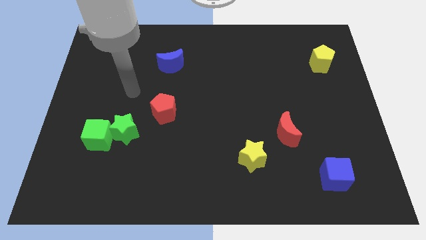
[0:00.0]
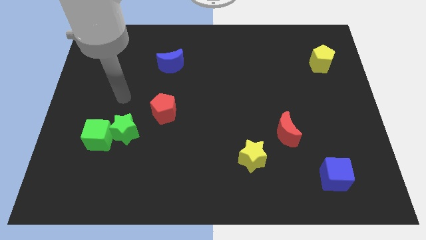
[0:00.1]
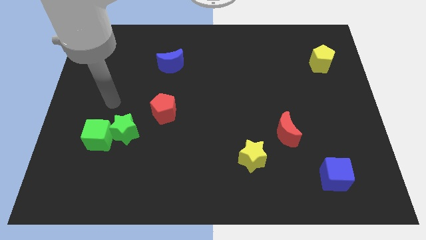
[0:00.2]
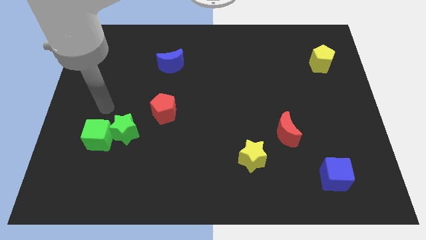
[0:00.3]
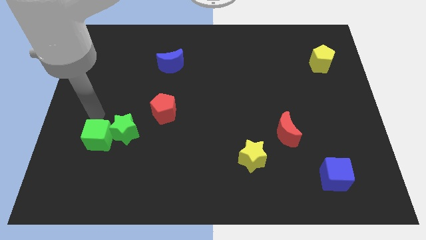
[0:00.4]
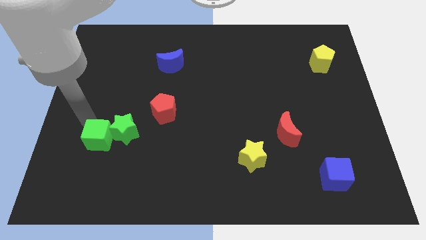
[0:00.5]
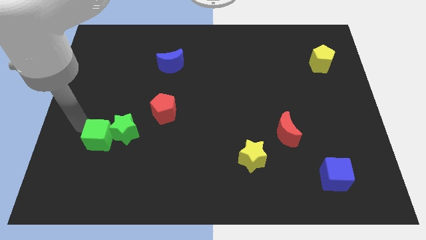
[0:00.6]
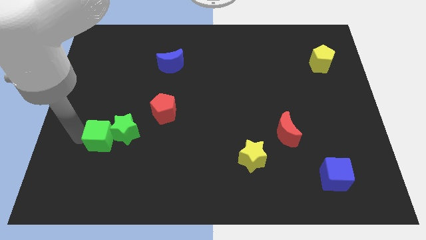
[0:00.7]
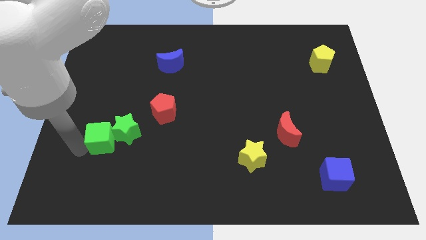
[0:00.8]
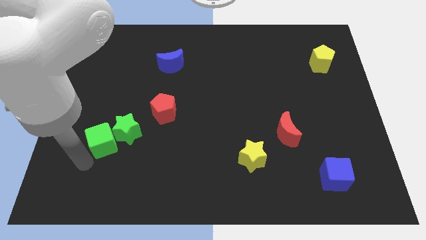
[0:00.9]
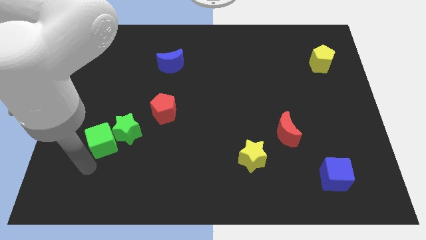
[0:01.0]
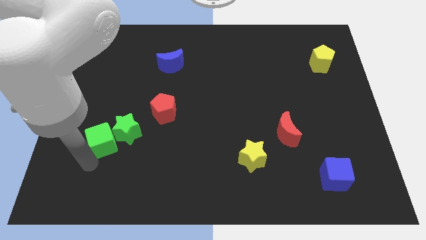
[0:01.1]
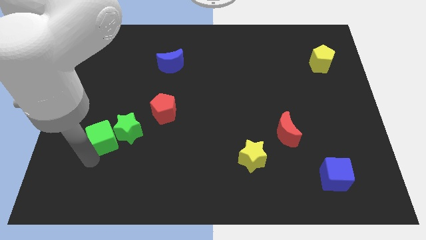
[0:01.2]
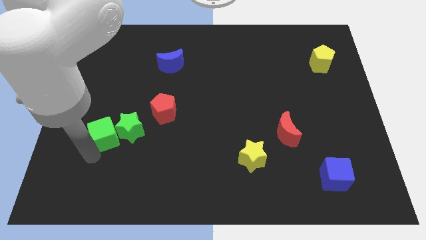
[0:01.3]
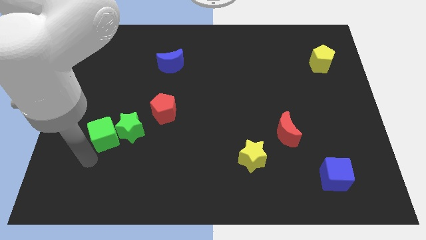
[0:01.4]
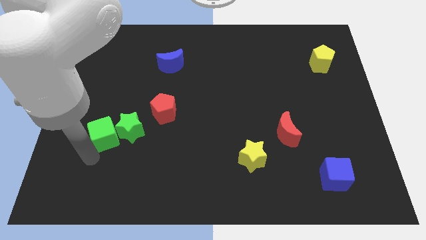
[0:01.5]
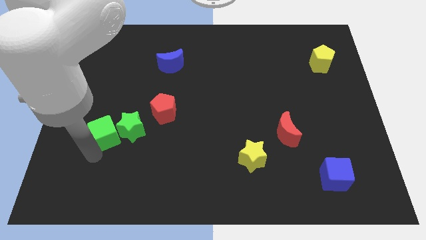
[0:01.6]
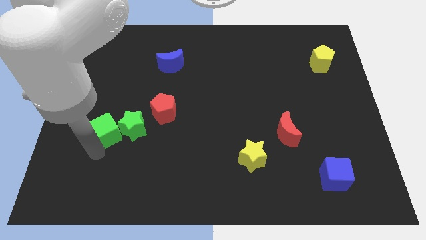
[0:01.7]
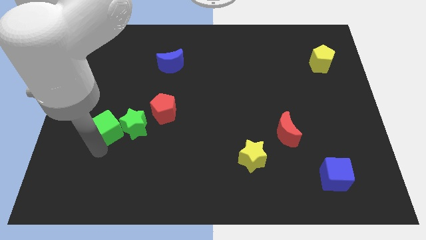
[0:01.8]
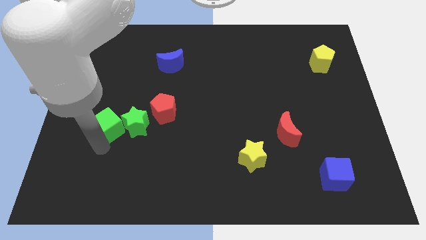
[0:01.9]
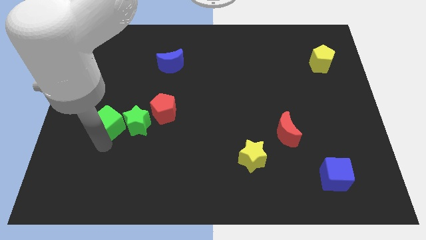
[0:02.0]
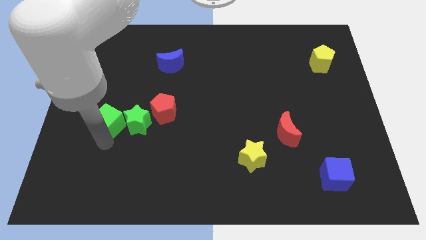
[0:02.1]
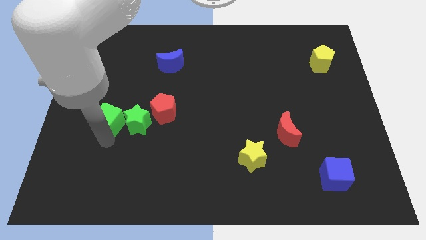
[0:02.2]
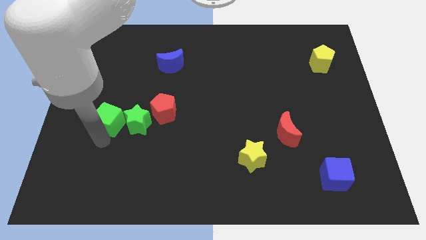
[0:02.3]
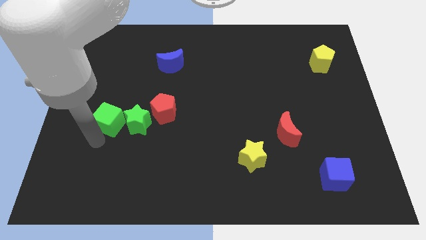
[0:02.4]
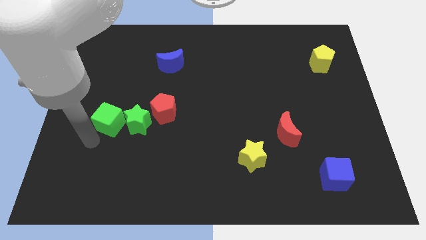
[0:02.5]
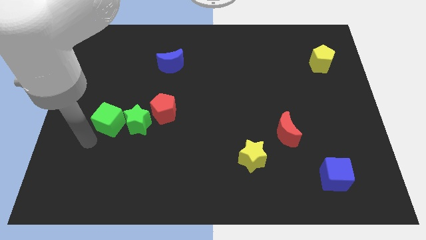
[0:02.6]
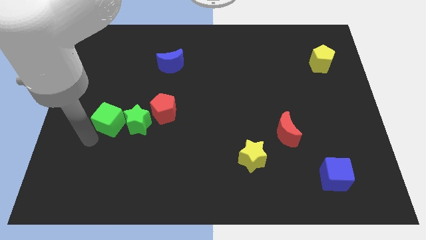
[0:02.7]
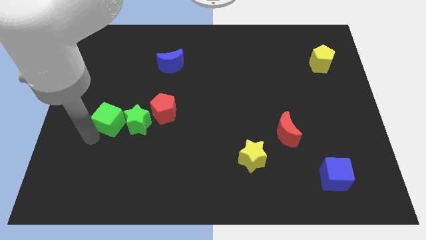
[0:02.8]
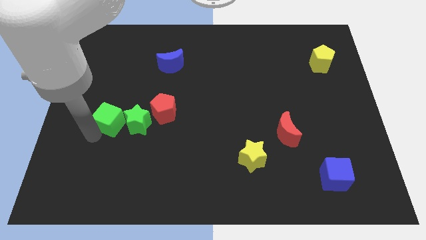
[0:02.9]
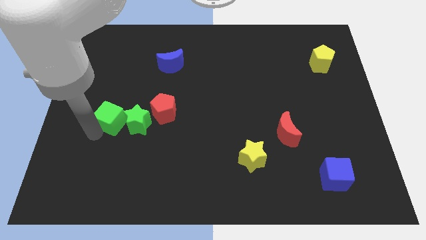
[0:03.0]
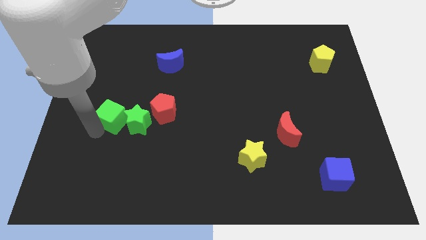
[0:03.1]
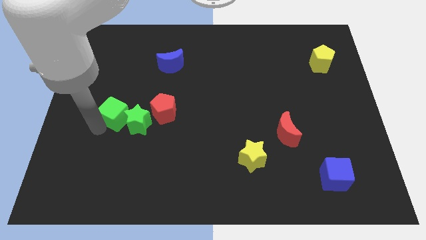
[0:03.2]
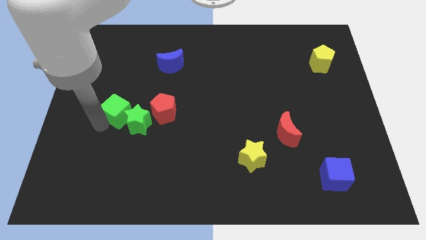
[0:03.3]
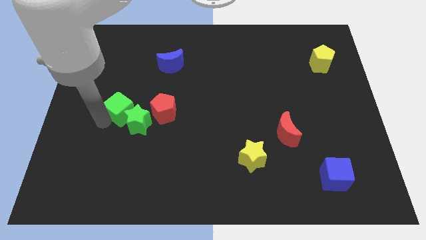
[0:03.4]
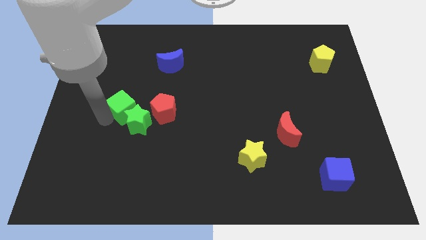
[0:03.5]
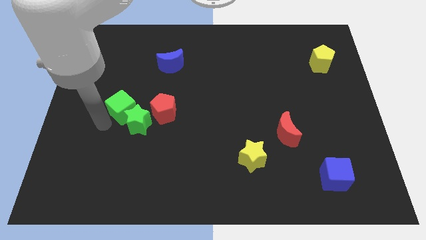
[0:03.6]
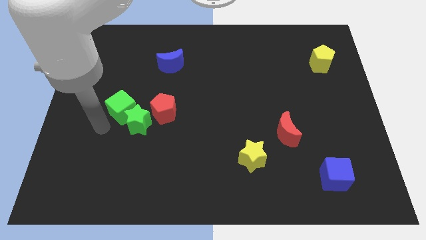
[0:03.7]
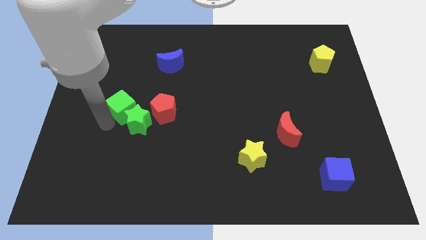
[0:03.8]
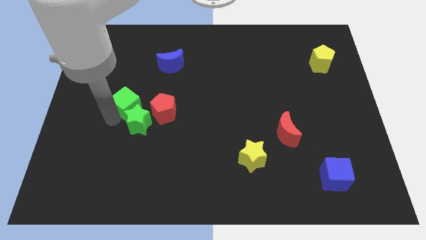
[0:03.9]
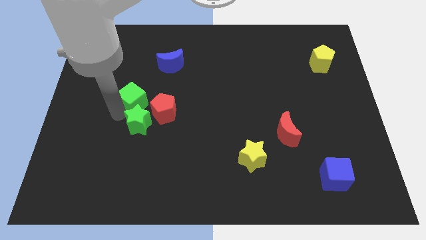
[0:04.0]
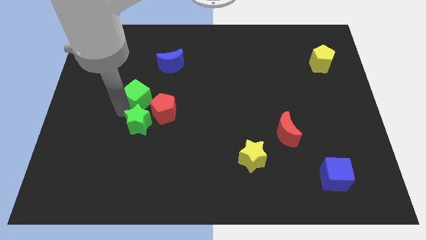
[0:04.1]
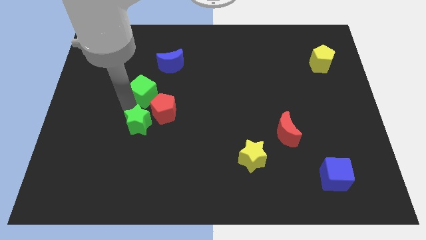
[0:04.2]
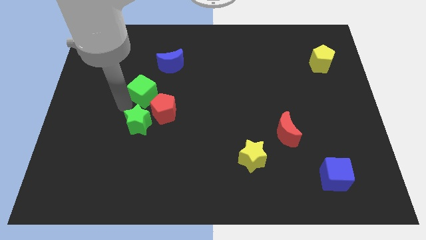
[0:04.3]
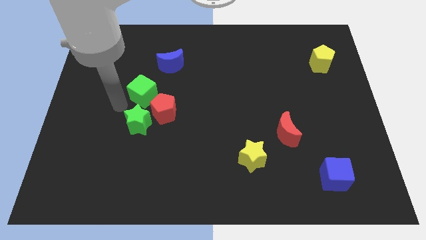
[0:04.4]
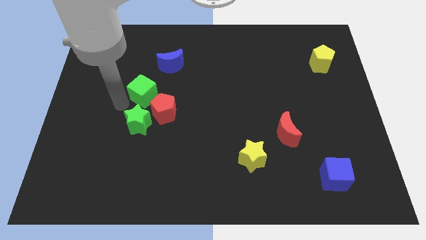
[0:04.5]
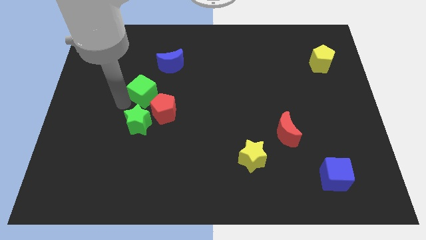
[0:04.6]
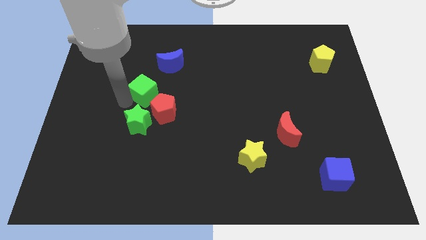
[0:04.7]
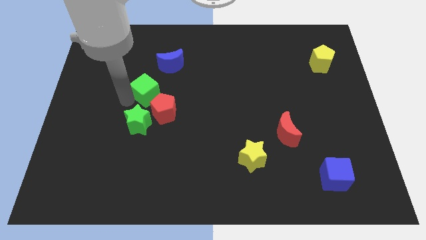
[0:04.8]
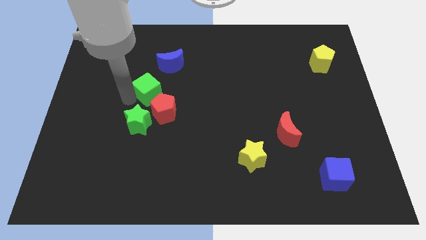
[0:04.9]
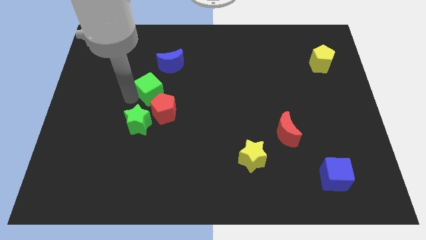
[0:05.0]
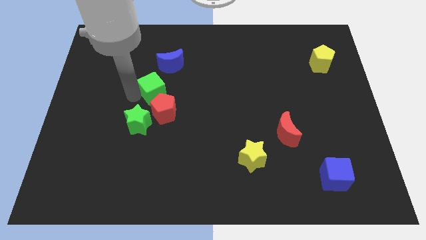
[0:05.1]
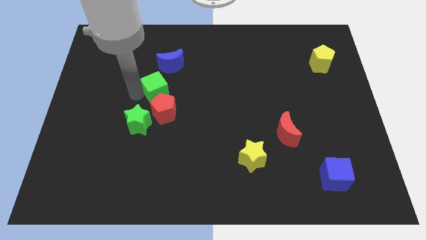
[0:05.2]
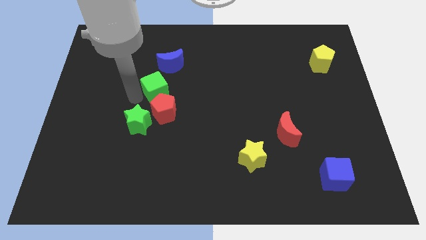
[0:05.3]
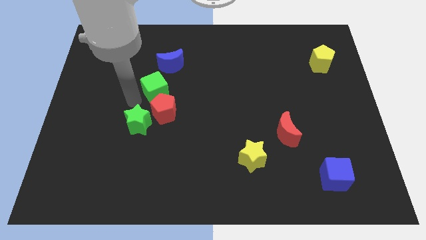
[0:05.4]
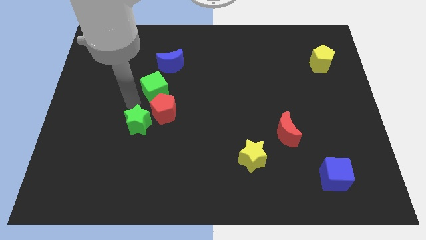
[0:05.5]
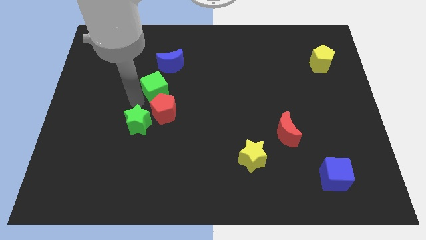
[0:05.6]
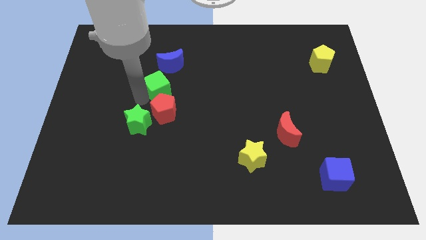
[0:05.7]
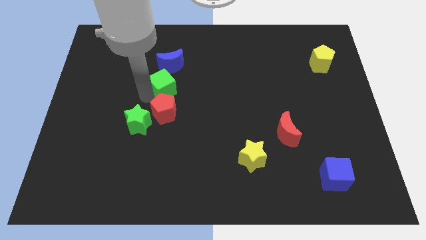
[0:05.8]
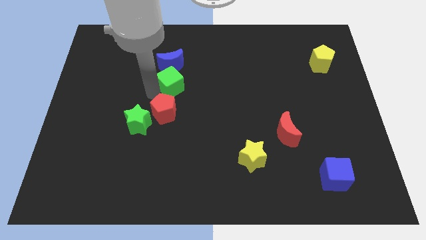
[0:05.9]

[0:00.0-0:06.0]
move the green cube upwards and to the right

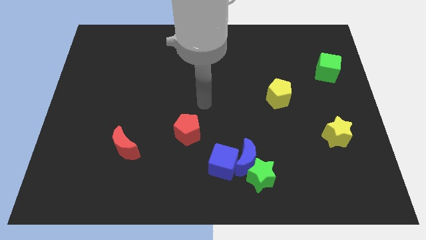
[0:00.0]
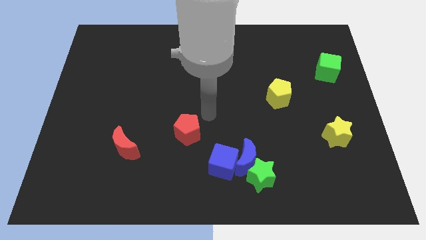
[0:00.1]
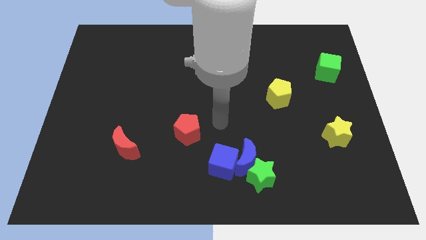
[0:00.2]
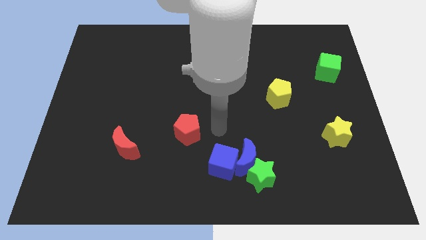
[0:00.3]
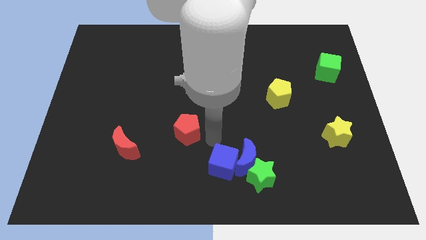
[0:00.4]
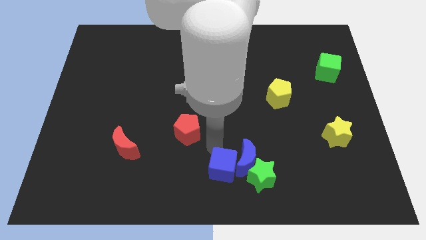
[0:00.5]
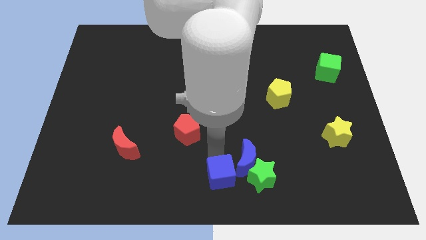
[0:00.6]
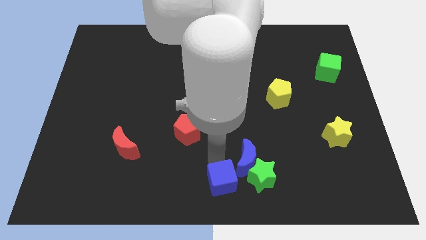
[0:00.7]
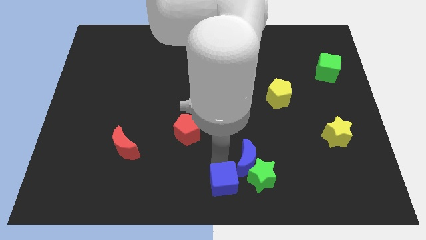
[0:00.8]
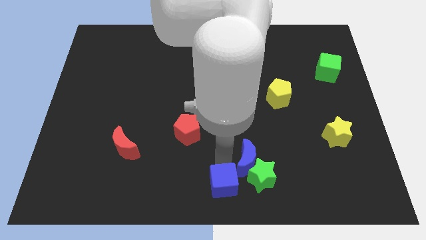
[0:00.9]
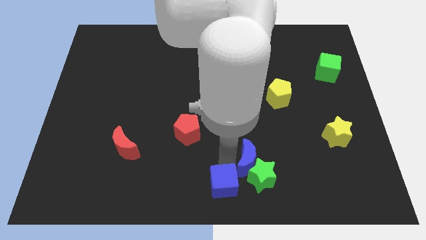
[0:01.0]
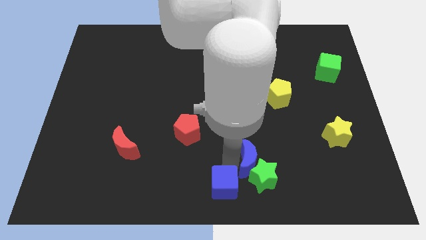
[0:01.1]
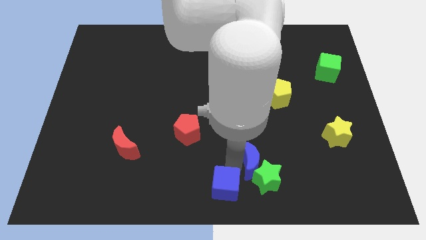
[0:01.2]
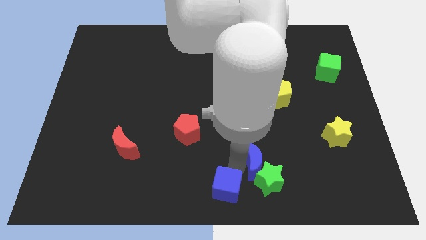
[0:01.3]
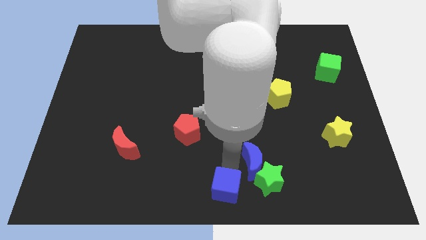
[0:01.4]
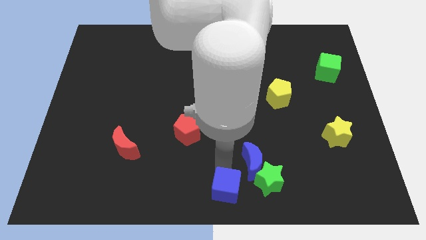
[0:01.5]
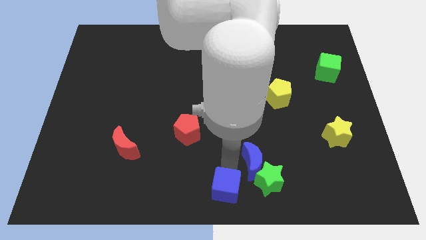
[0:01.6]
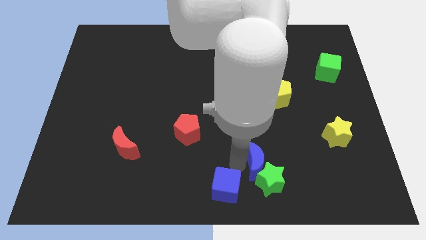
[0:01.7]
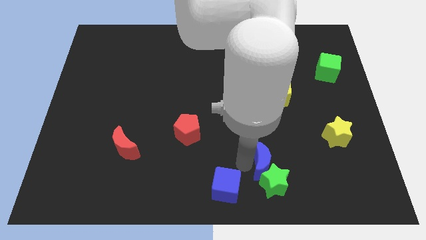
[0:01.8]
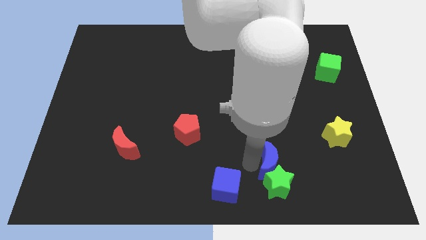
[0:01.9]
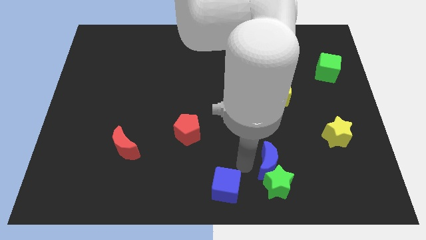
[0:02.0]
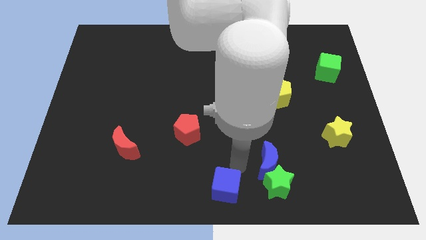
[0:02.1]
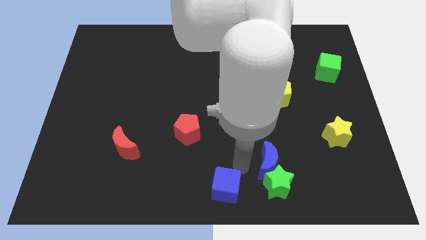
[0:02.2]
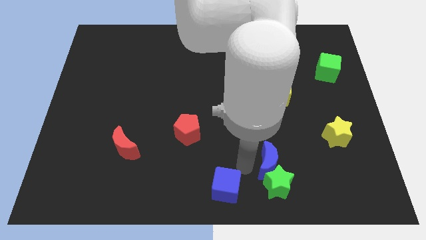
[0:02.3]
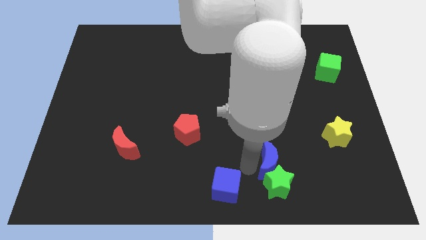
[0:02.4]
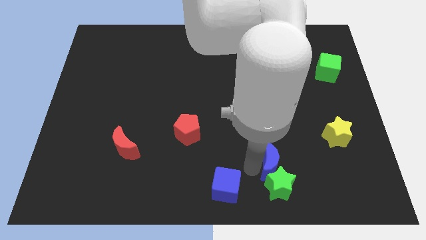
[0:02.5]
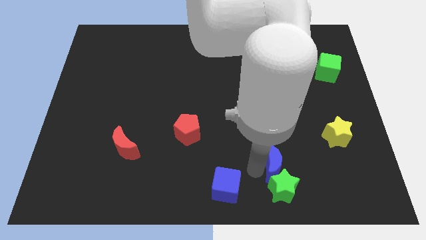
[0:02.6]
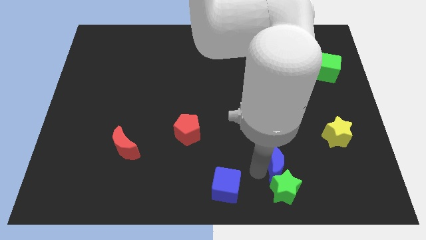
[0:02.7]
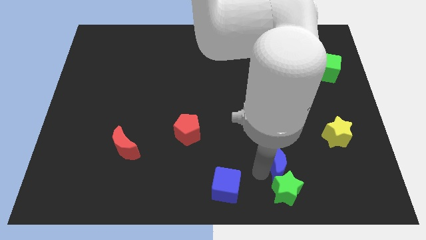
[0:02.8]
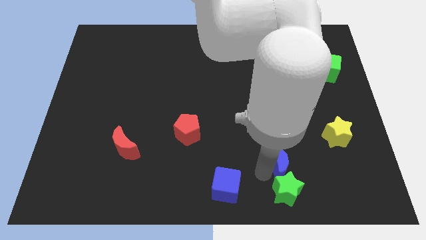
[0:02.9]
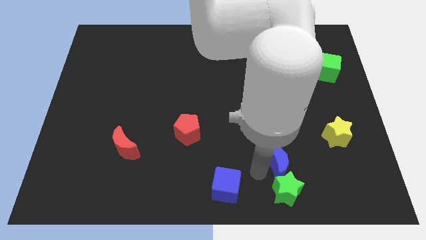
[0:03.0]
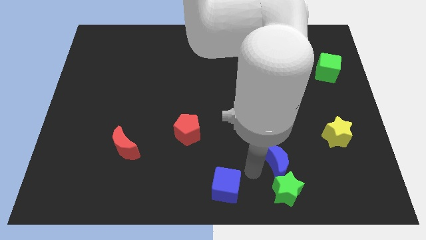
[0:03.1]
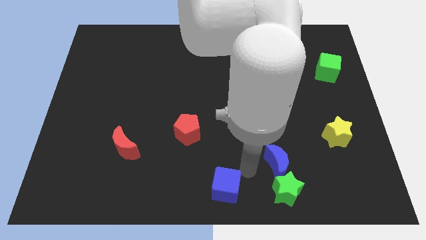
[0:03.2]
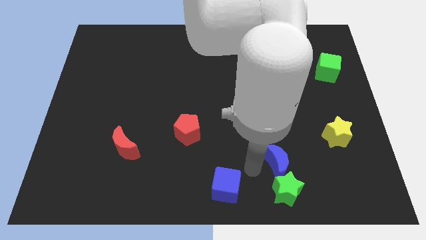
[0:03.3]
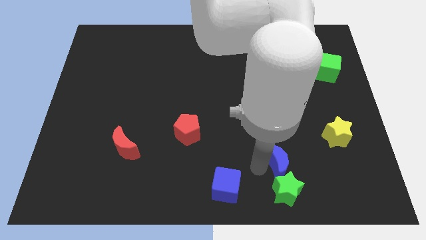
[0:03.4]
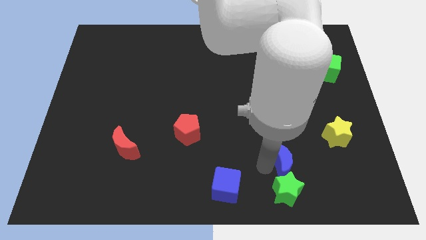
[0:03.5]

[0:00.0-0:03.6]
slide the blue moon right somewhat
